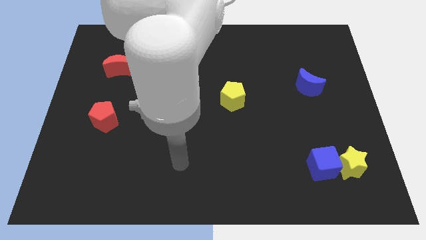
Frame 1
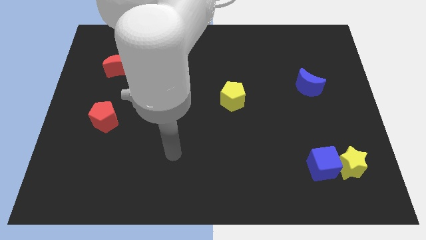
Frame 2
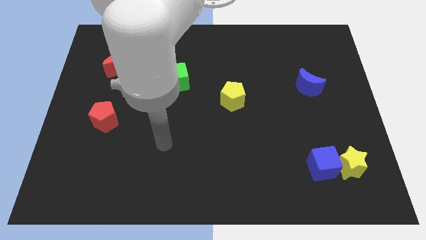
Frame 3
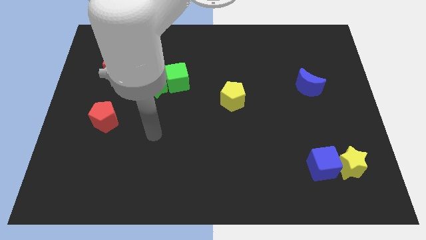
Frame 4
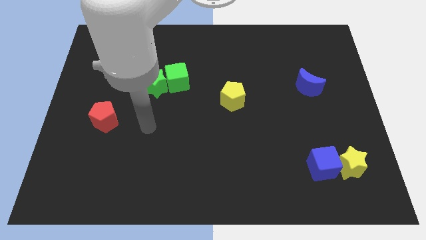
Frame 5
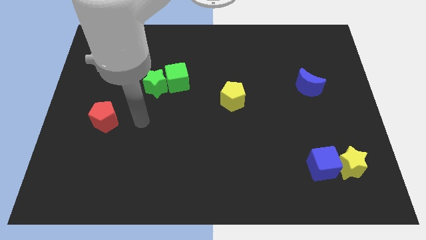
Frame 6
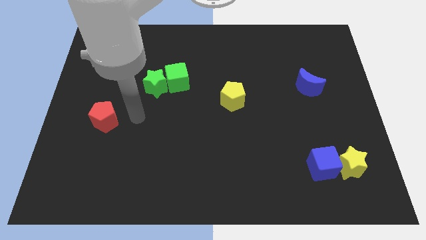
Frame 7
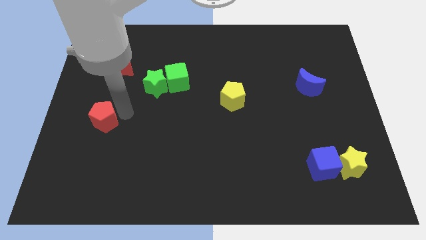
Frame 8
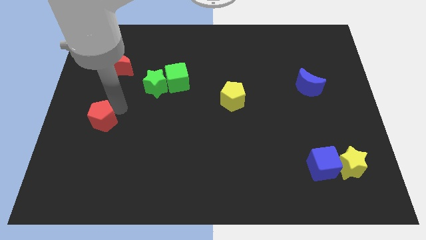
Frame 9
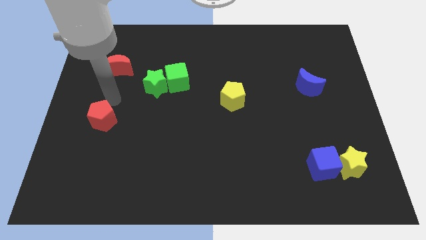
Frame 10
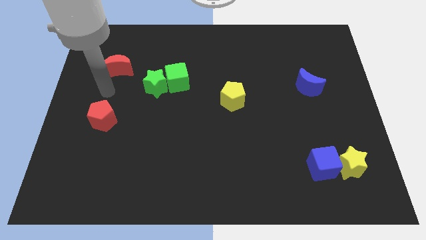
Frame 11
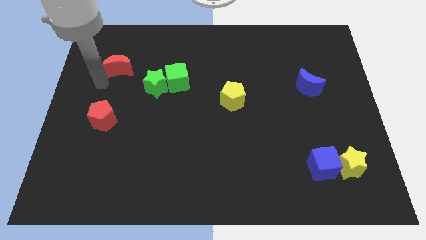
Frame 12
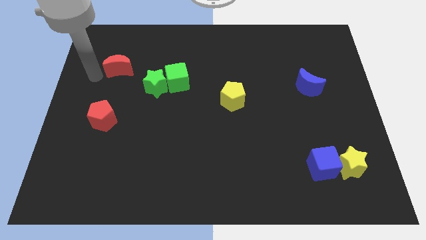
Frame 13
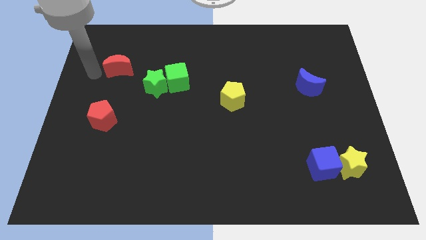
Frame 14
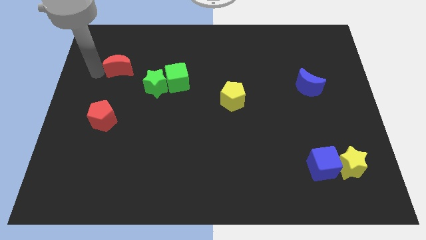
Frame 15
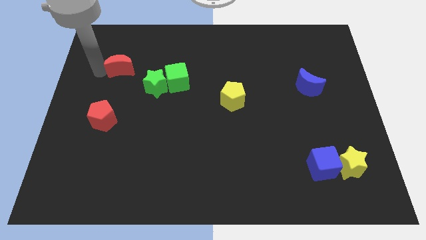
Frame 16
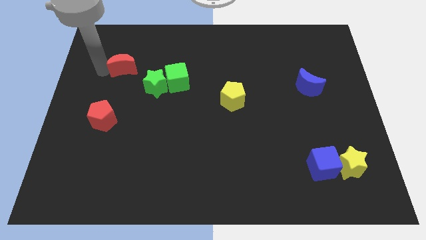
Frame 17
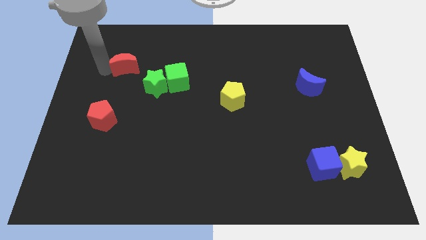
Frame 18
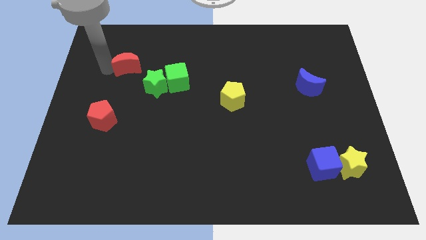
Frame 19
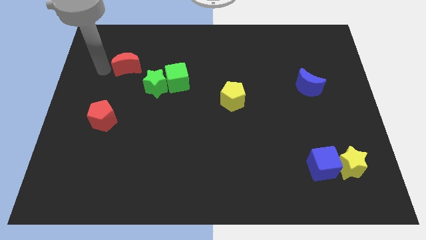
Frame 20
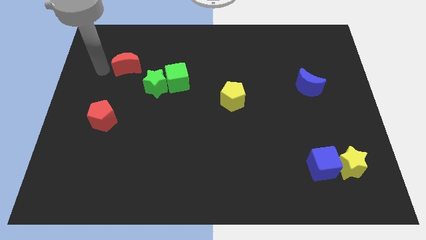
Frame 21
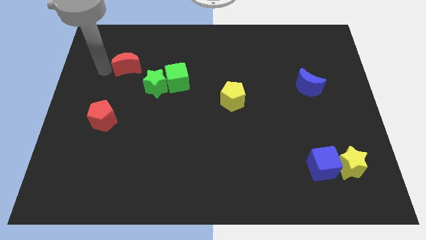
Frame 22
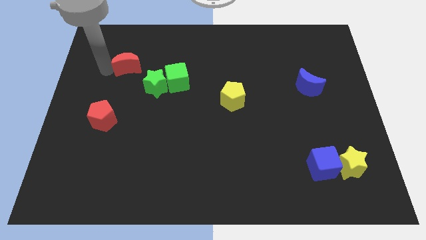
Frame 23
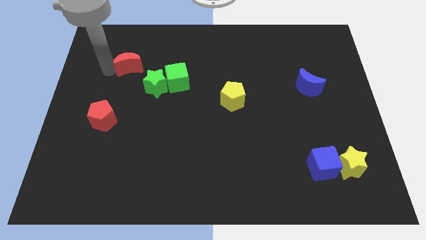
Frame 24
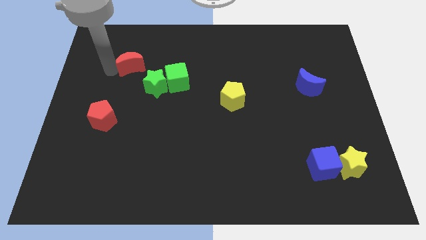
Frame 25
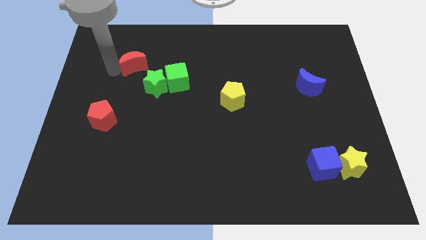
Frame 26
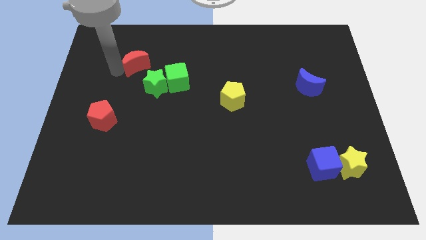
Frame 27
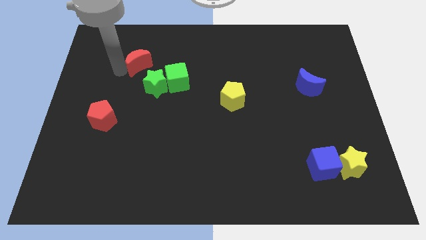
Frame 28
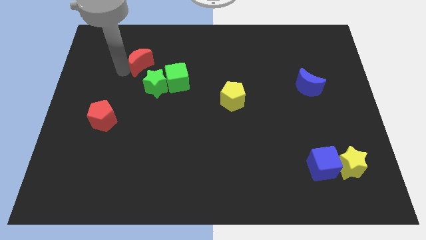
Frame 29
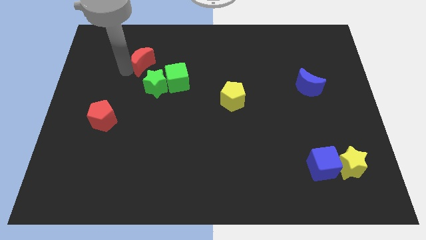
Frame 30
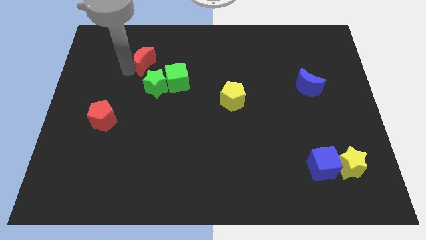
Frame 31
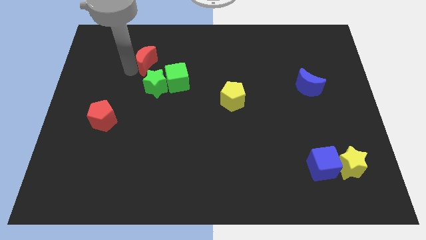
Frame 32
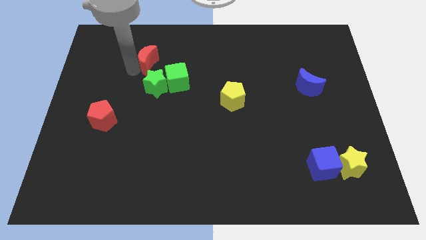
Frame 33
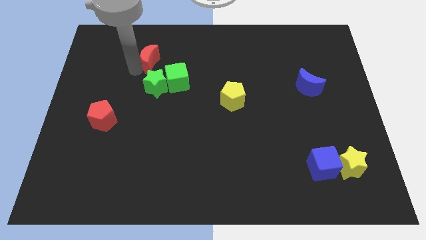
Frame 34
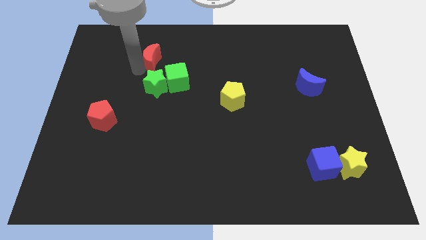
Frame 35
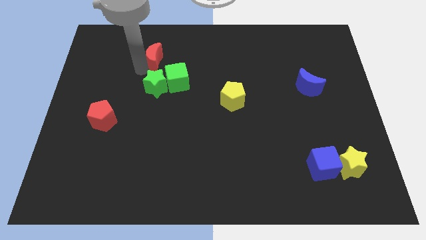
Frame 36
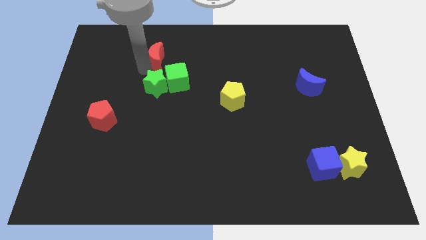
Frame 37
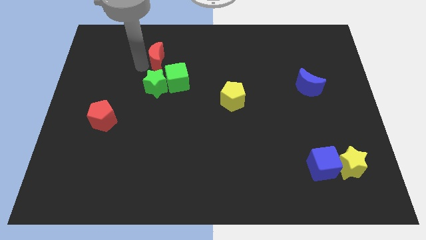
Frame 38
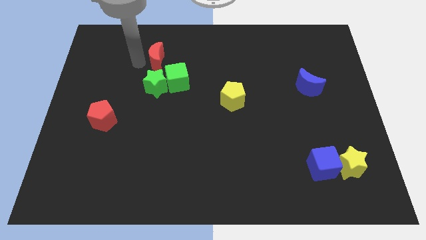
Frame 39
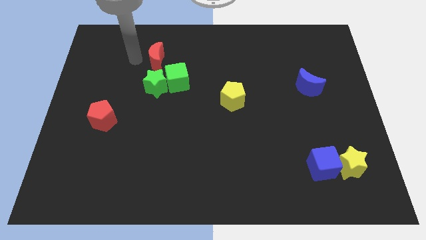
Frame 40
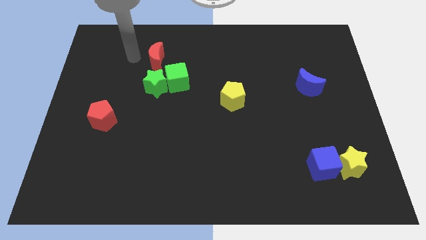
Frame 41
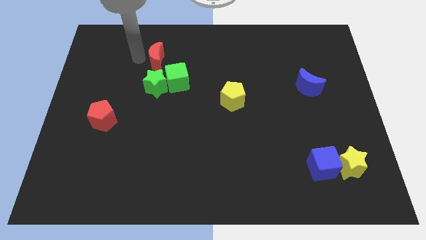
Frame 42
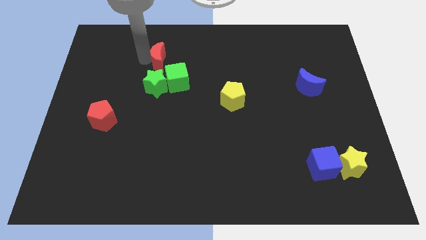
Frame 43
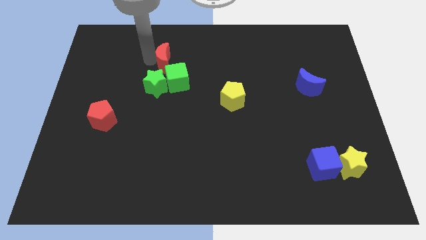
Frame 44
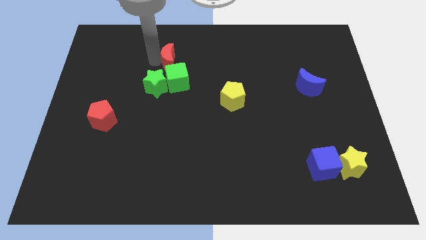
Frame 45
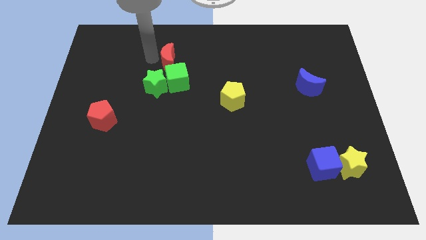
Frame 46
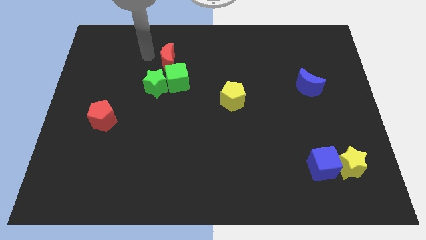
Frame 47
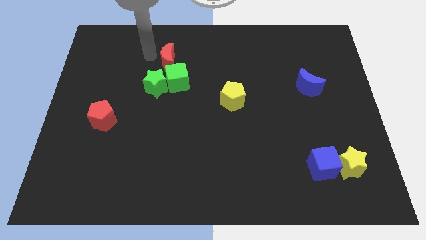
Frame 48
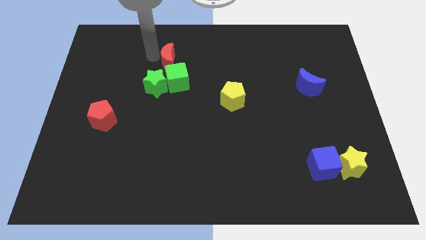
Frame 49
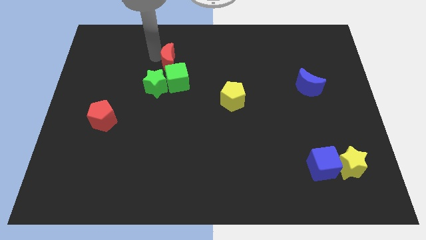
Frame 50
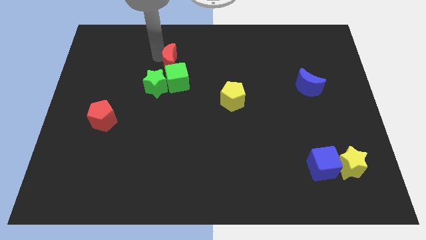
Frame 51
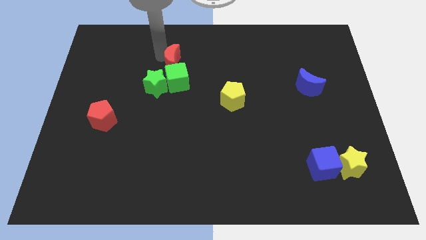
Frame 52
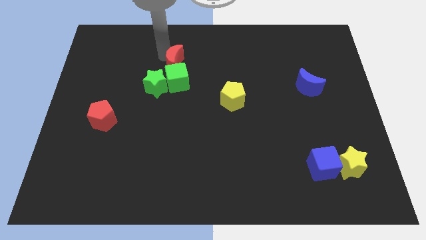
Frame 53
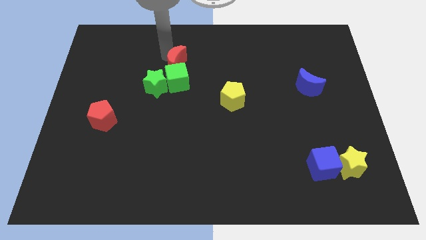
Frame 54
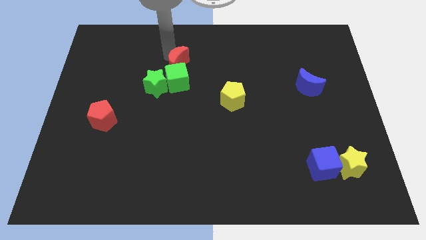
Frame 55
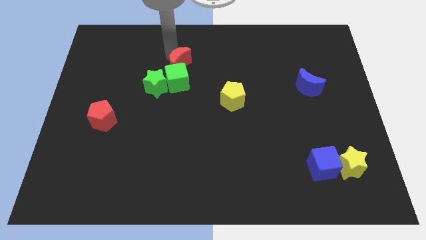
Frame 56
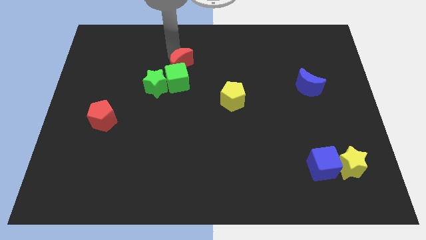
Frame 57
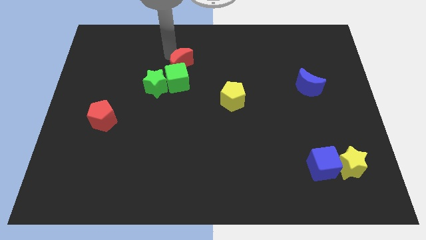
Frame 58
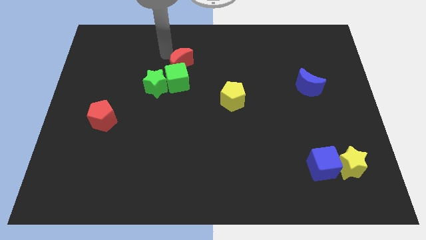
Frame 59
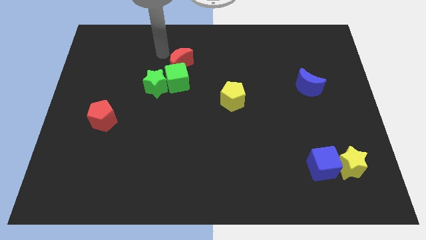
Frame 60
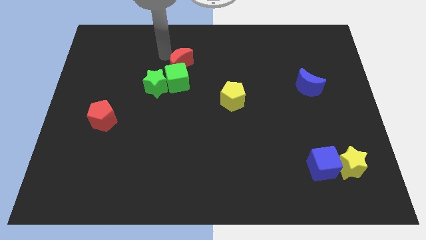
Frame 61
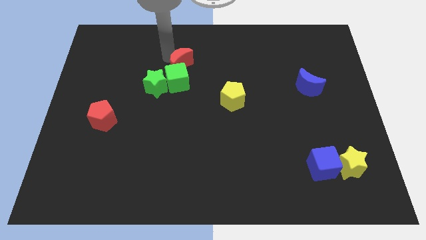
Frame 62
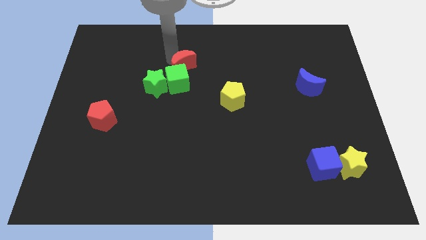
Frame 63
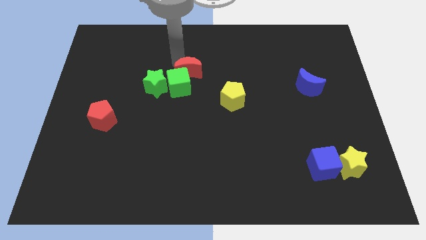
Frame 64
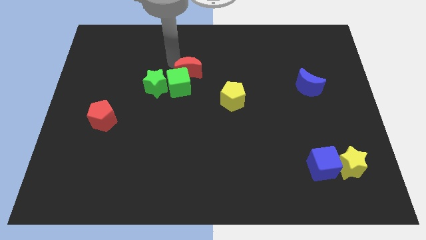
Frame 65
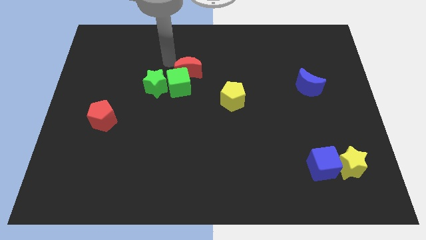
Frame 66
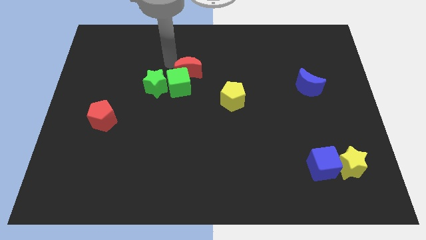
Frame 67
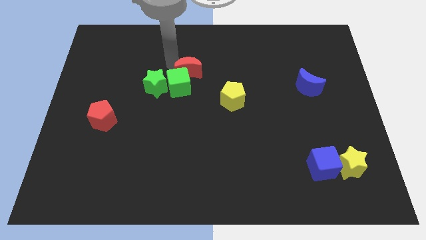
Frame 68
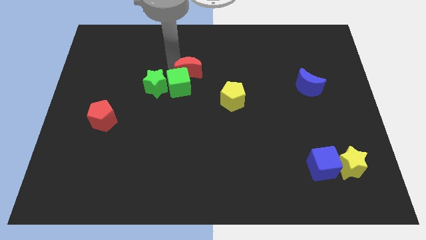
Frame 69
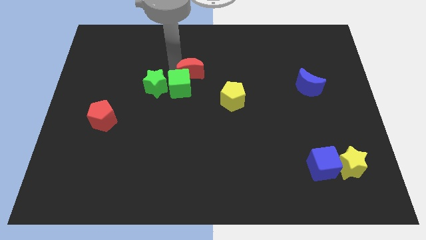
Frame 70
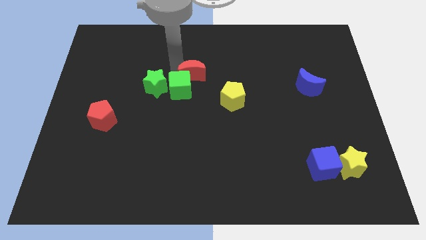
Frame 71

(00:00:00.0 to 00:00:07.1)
put the red moon to the top left side of the yellow pentagon

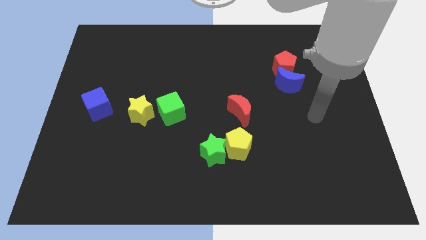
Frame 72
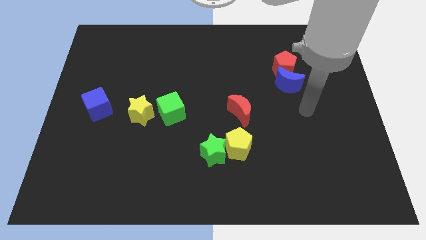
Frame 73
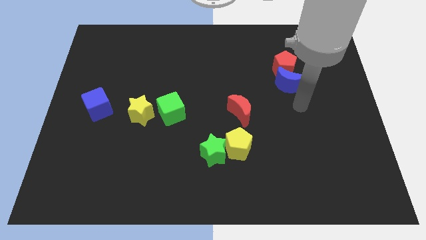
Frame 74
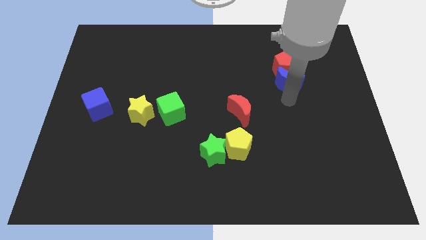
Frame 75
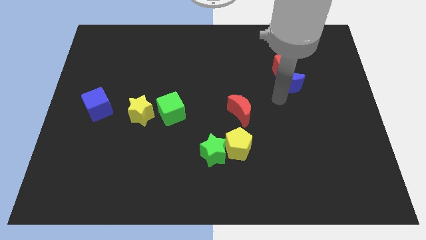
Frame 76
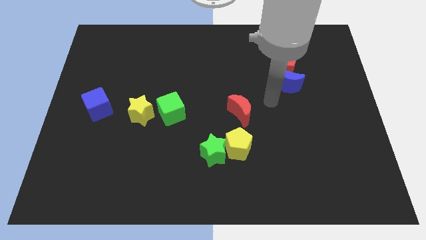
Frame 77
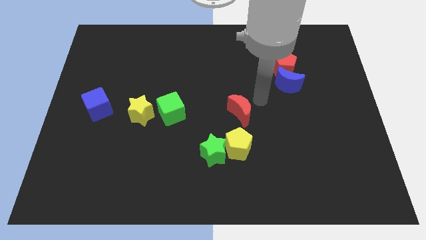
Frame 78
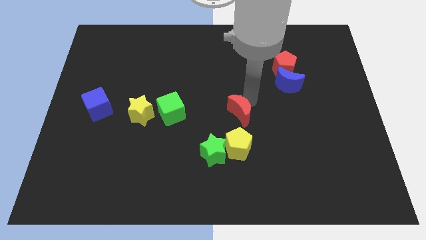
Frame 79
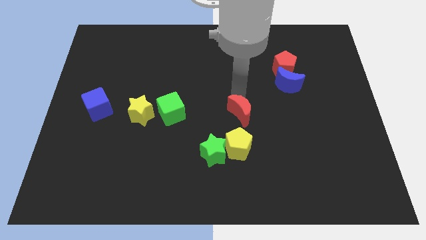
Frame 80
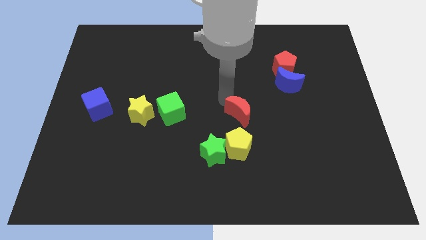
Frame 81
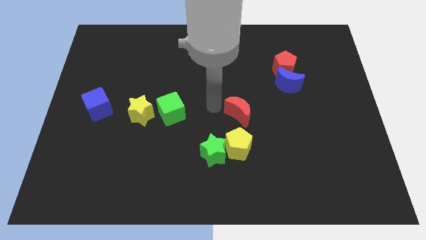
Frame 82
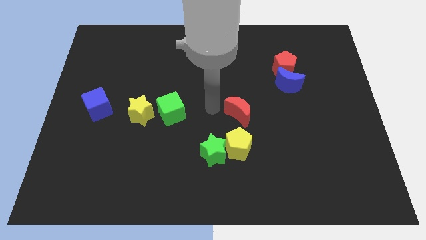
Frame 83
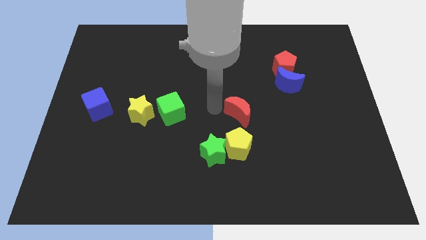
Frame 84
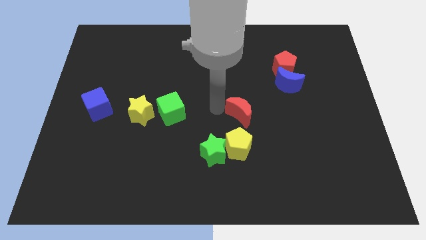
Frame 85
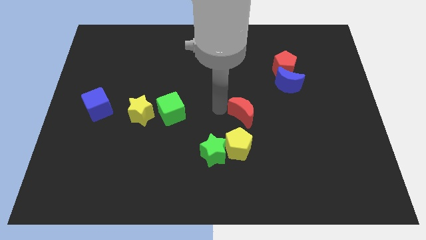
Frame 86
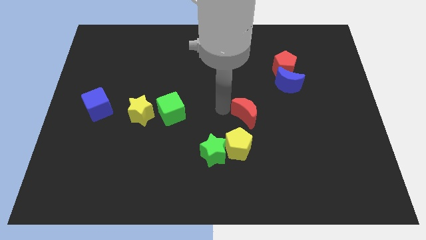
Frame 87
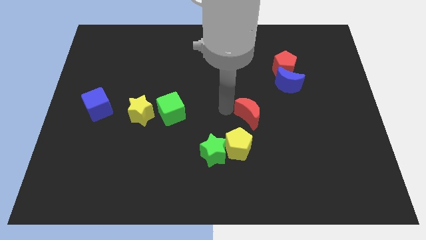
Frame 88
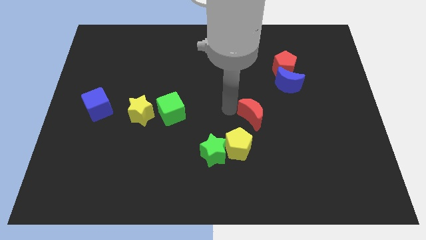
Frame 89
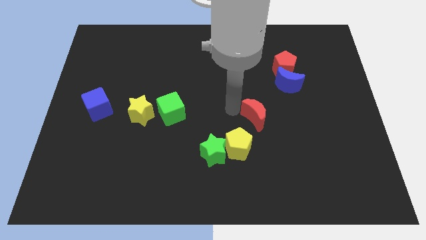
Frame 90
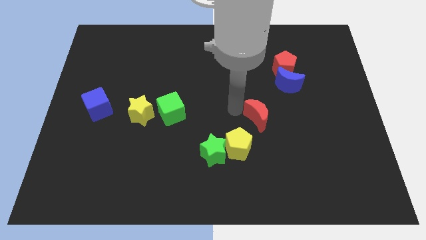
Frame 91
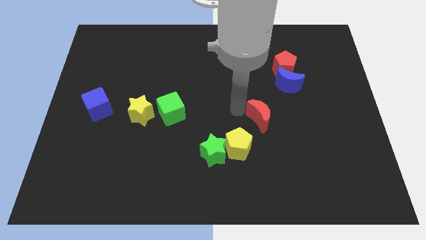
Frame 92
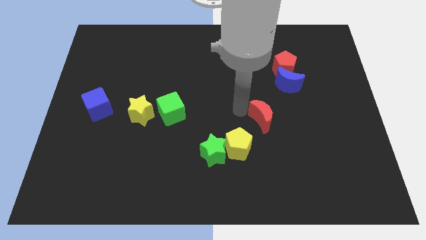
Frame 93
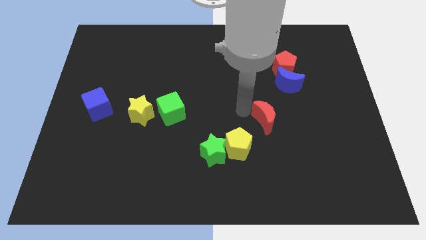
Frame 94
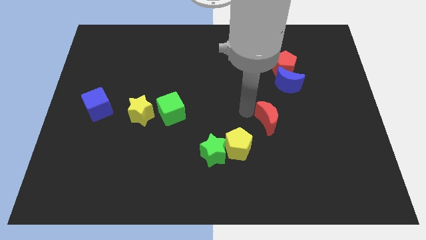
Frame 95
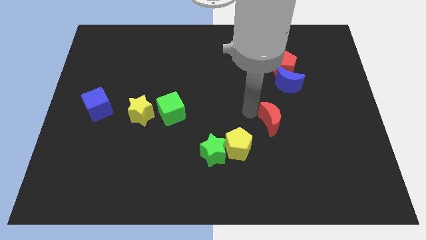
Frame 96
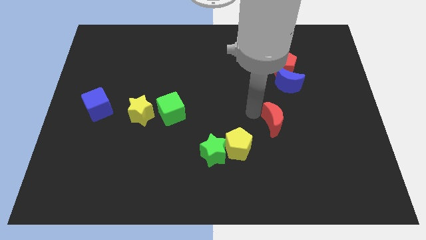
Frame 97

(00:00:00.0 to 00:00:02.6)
push the red moon to the bottom side of the blue moon
